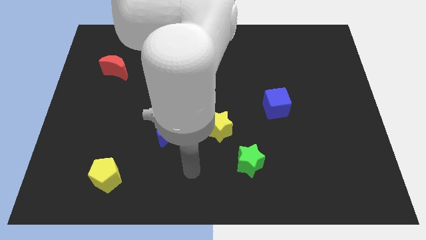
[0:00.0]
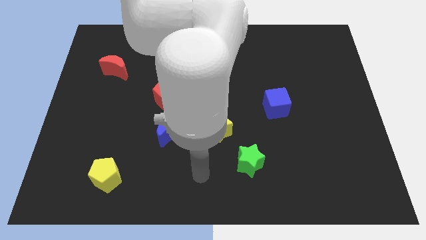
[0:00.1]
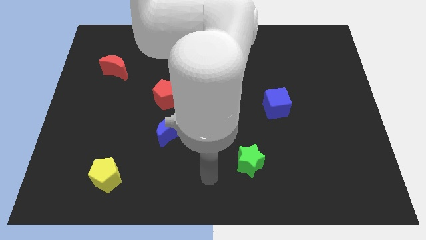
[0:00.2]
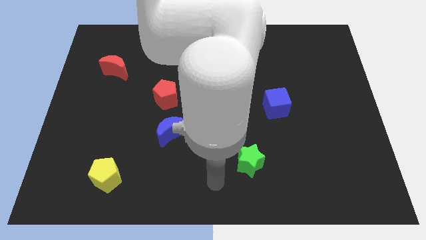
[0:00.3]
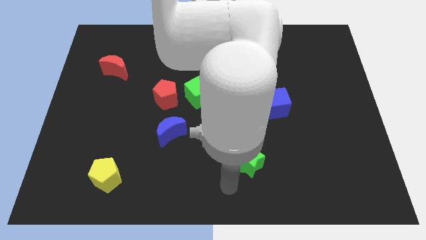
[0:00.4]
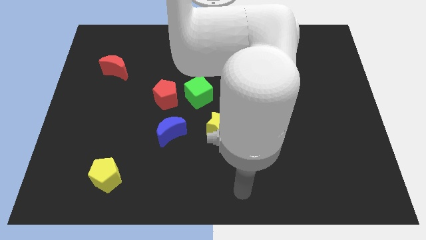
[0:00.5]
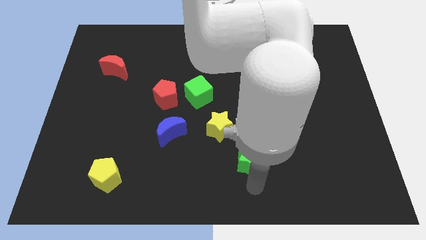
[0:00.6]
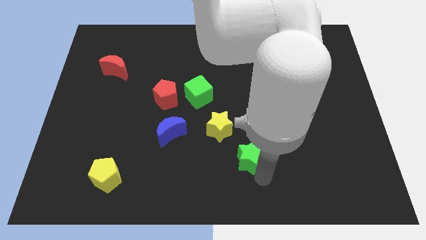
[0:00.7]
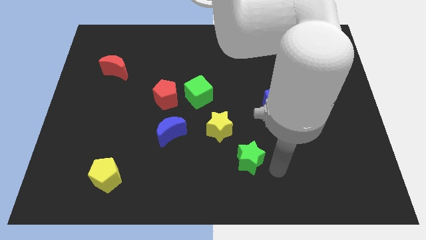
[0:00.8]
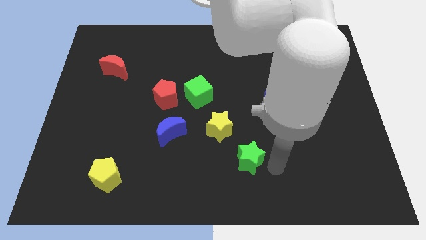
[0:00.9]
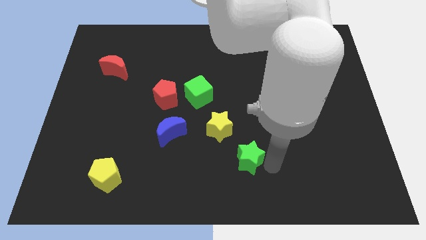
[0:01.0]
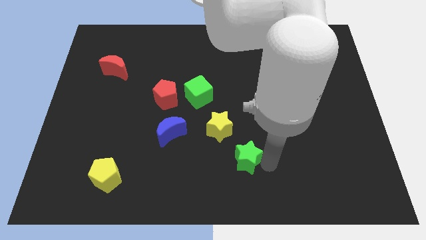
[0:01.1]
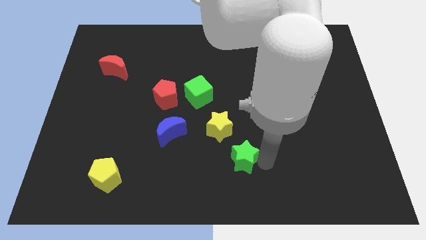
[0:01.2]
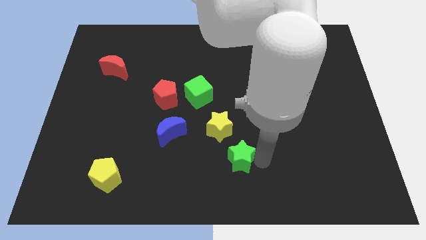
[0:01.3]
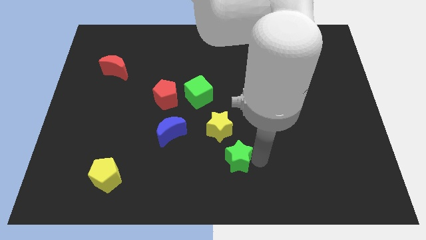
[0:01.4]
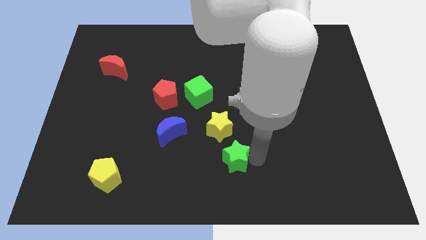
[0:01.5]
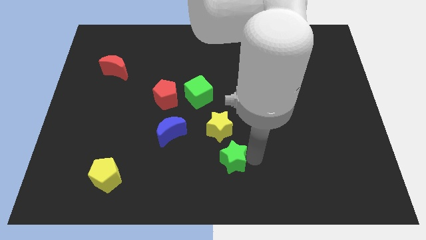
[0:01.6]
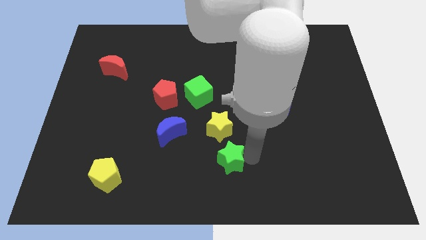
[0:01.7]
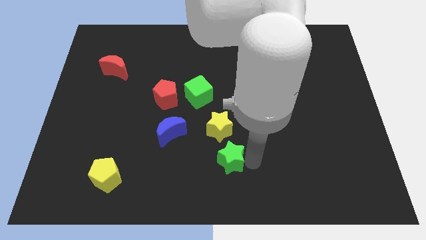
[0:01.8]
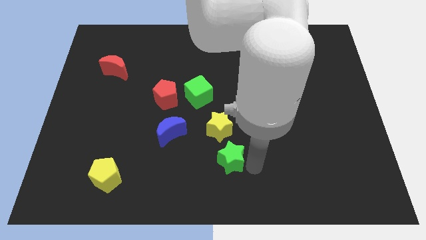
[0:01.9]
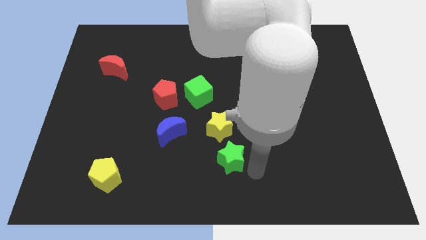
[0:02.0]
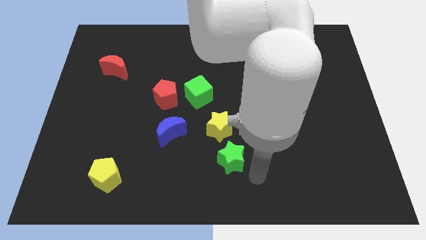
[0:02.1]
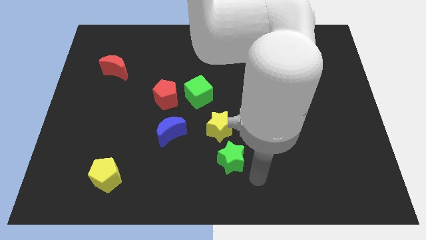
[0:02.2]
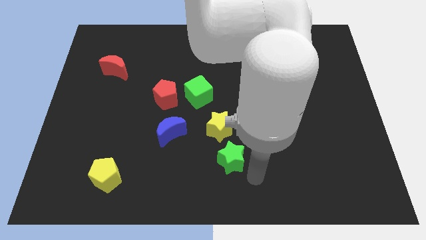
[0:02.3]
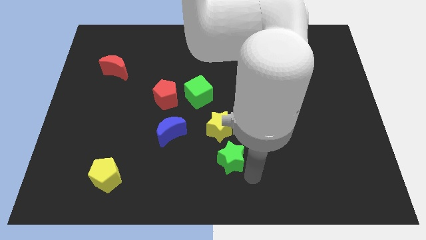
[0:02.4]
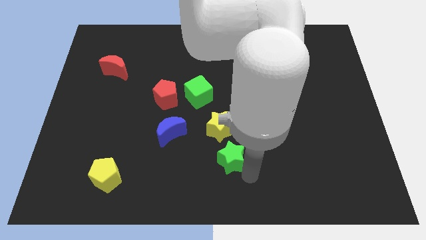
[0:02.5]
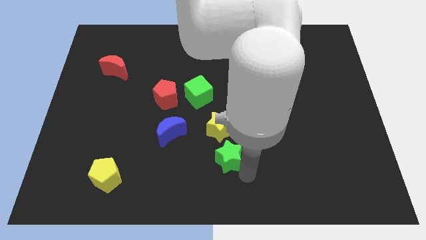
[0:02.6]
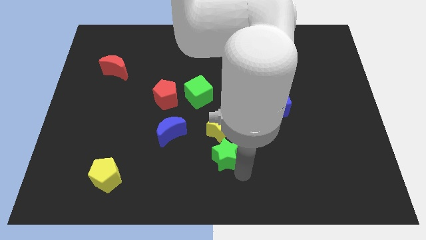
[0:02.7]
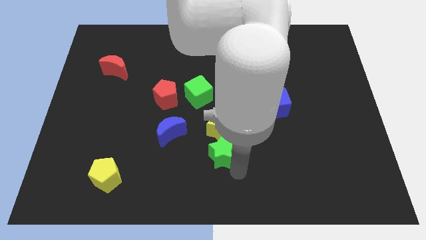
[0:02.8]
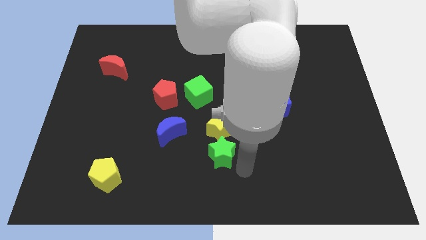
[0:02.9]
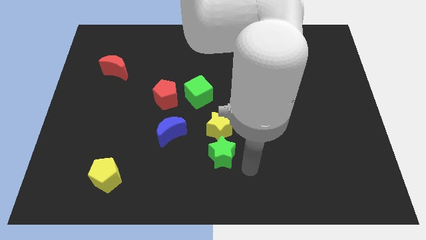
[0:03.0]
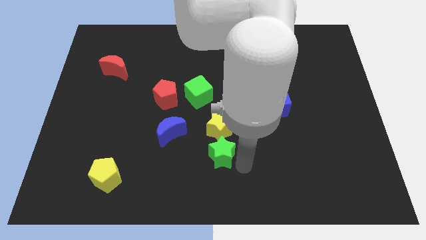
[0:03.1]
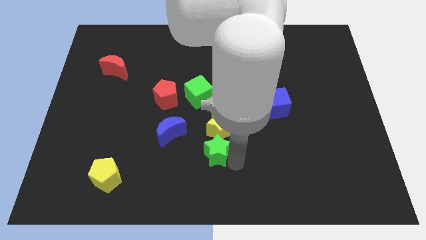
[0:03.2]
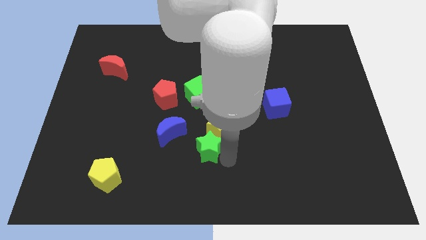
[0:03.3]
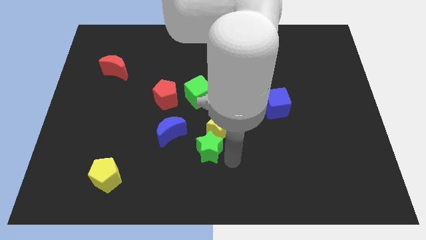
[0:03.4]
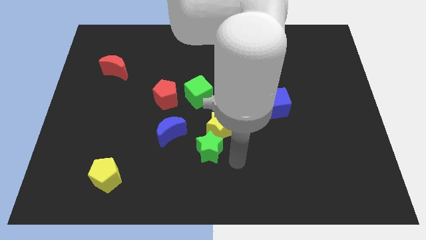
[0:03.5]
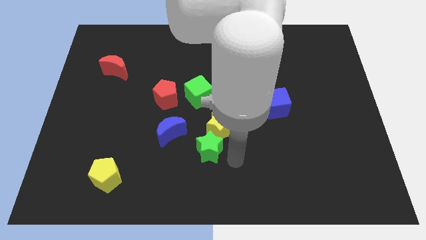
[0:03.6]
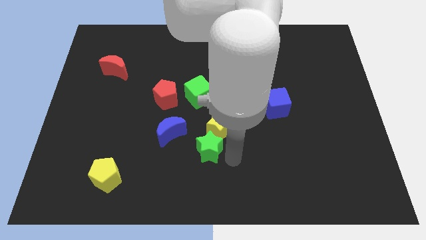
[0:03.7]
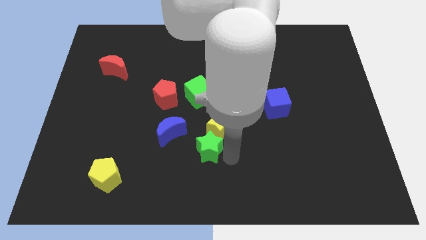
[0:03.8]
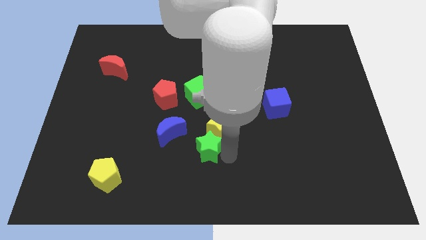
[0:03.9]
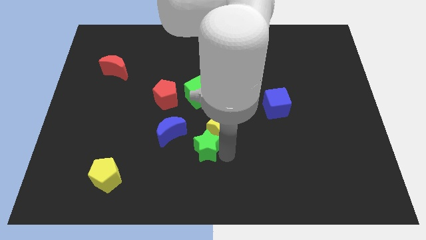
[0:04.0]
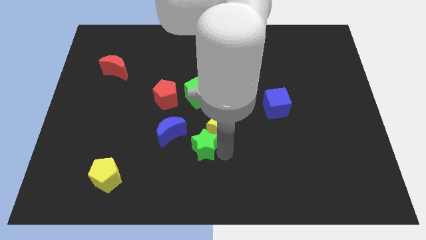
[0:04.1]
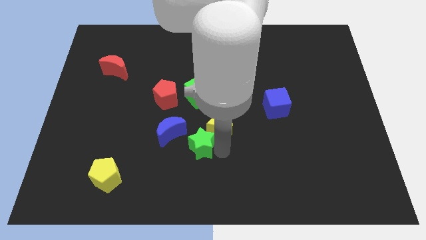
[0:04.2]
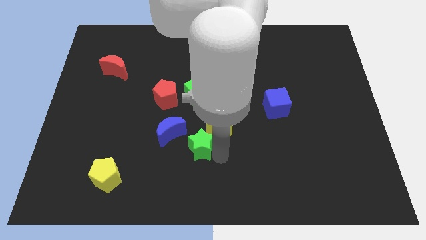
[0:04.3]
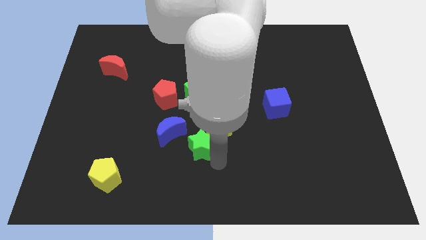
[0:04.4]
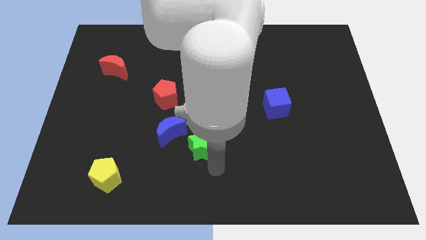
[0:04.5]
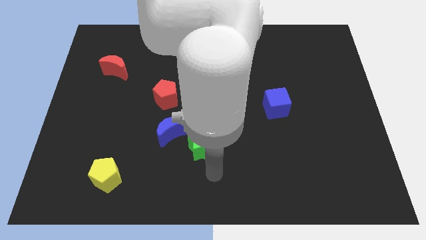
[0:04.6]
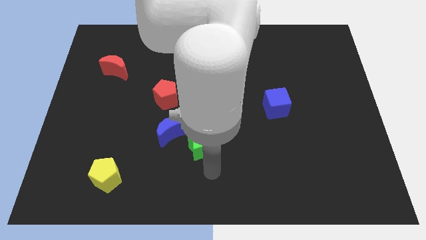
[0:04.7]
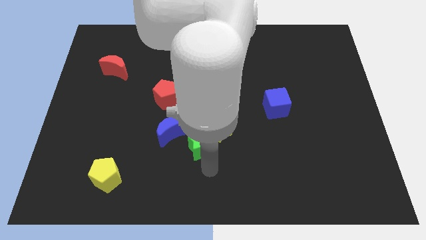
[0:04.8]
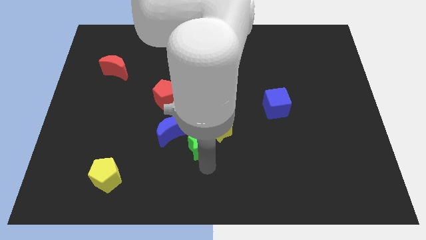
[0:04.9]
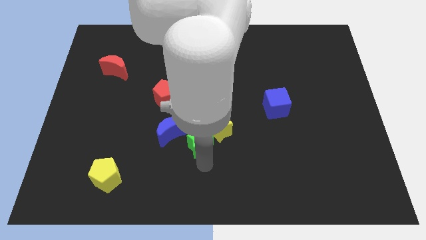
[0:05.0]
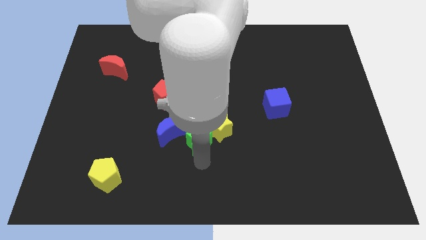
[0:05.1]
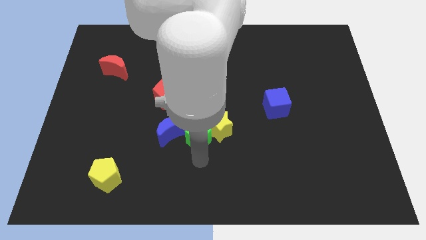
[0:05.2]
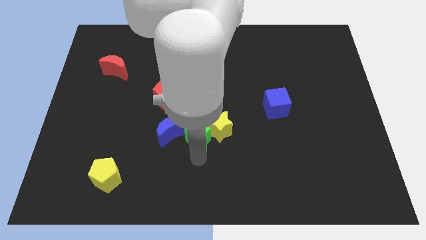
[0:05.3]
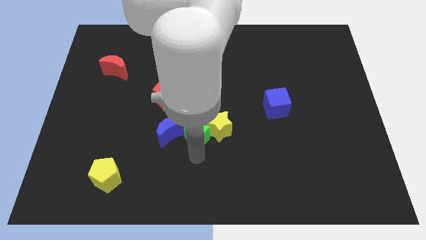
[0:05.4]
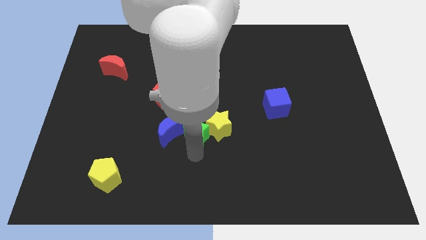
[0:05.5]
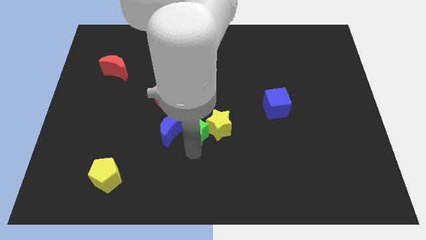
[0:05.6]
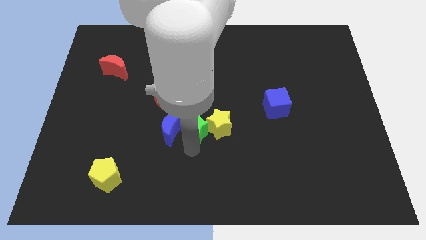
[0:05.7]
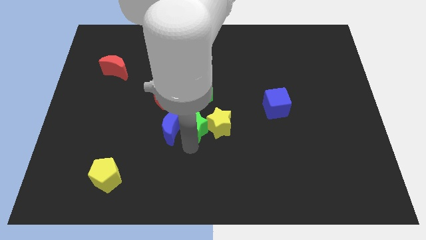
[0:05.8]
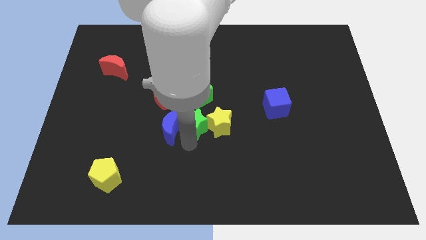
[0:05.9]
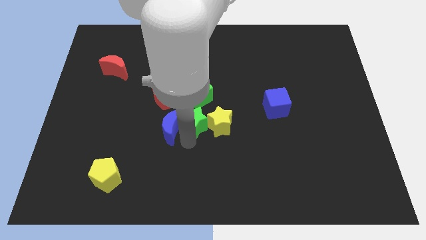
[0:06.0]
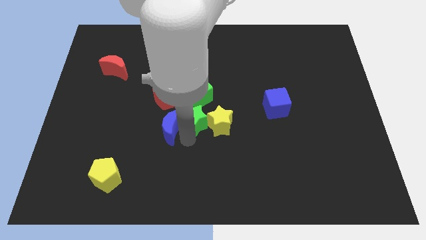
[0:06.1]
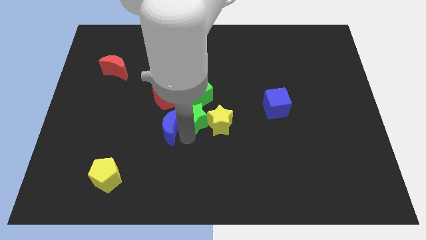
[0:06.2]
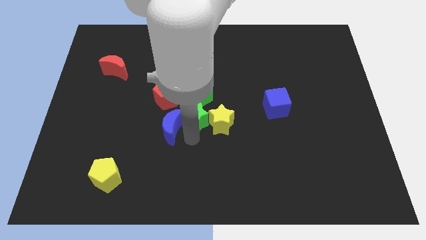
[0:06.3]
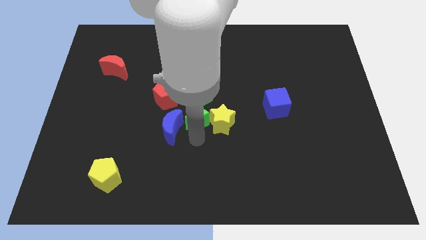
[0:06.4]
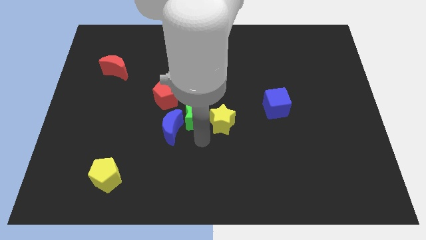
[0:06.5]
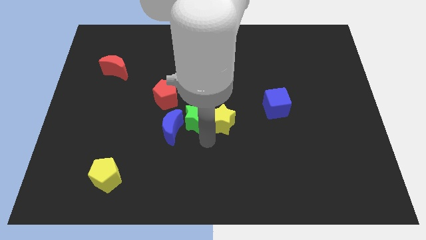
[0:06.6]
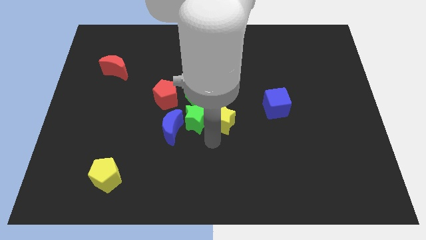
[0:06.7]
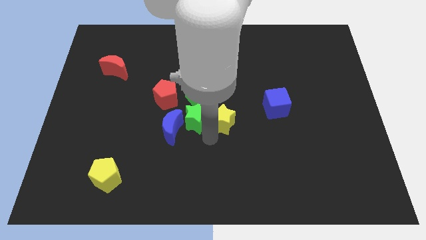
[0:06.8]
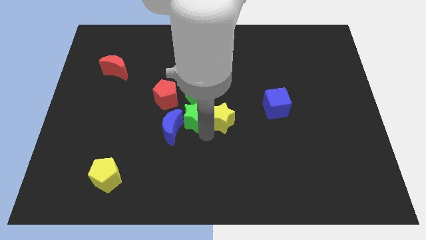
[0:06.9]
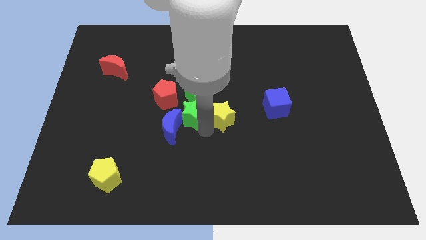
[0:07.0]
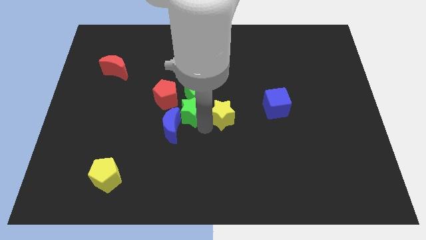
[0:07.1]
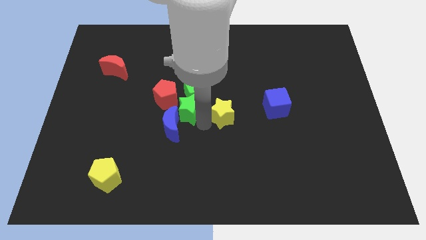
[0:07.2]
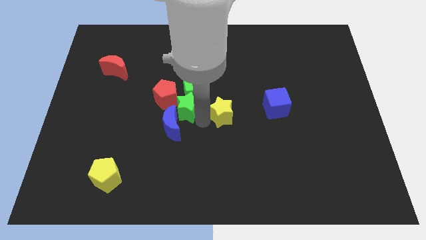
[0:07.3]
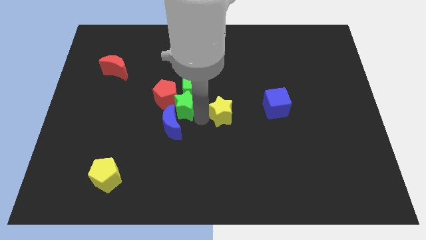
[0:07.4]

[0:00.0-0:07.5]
slide the green star towards the red pentagon
